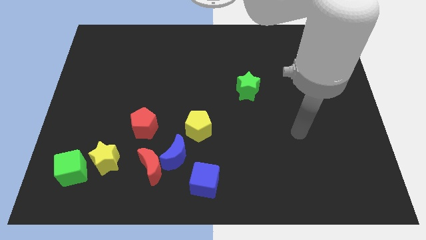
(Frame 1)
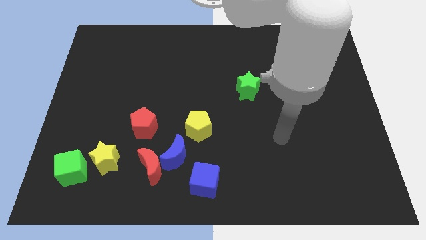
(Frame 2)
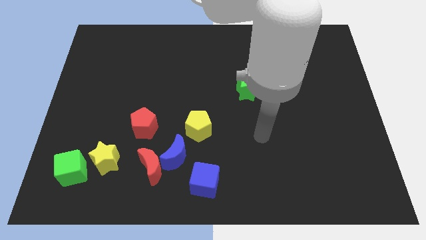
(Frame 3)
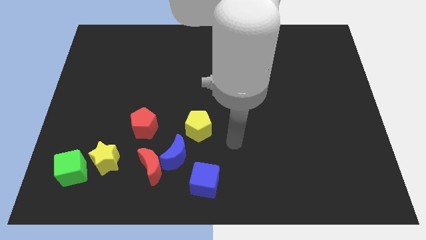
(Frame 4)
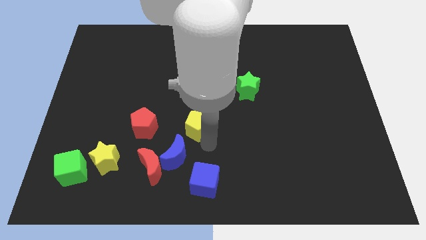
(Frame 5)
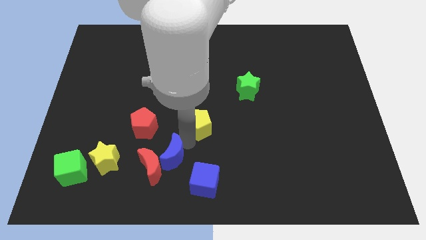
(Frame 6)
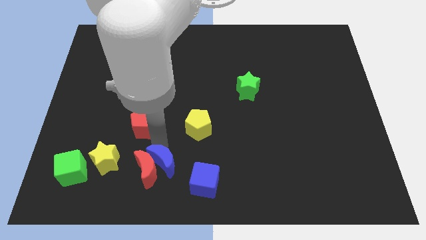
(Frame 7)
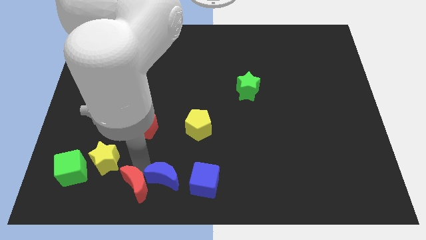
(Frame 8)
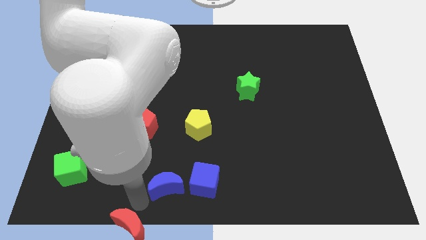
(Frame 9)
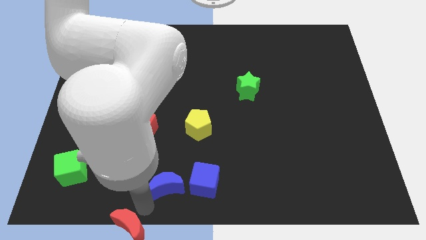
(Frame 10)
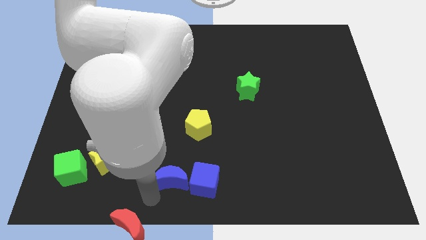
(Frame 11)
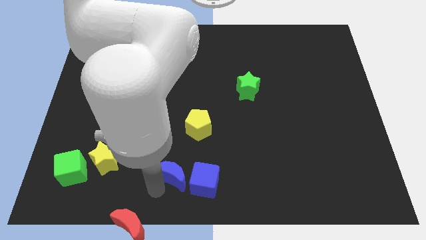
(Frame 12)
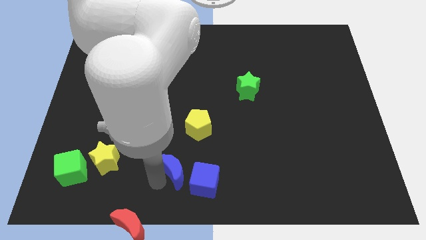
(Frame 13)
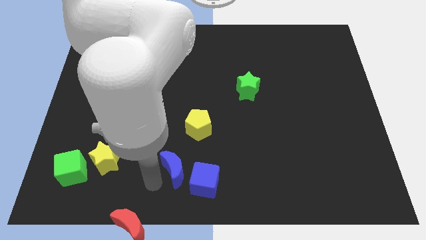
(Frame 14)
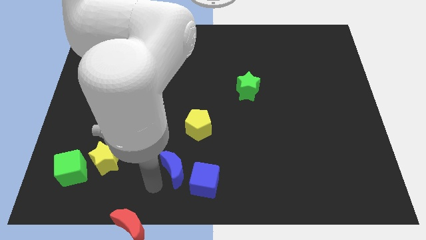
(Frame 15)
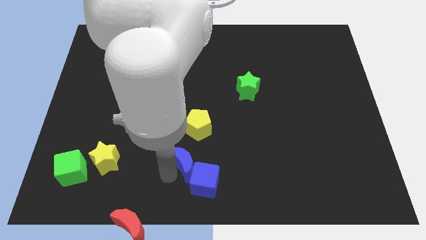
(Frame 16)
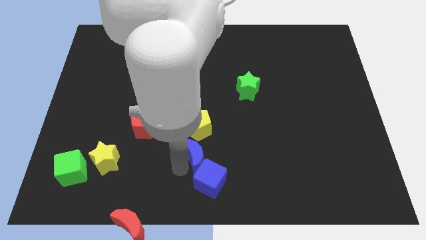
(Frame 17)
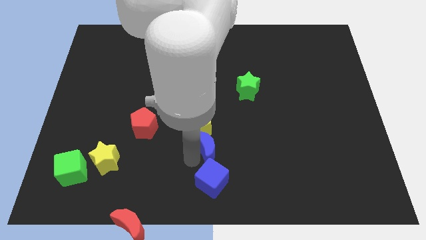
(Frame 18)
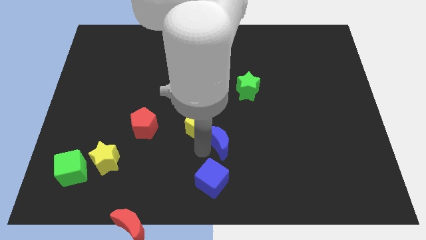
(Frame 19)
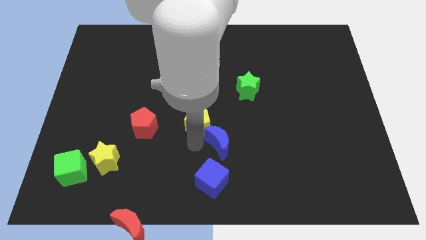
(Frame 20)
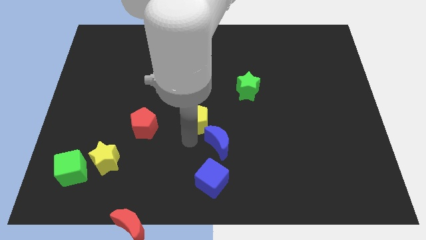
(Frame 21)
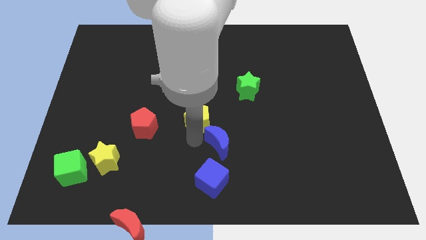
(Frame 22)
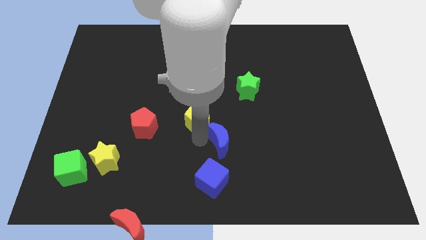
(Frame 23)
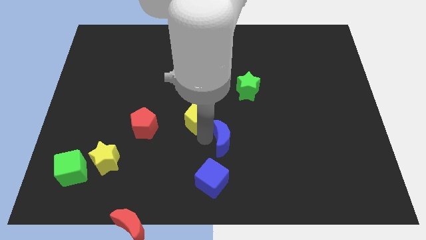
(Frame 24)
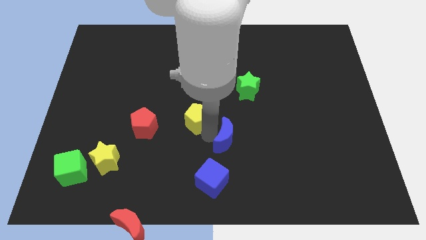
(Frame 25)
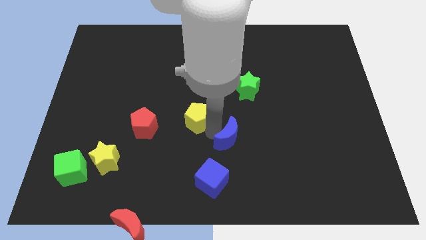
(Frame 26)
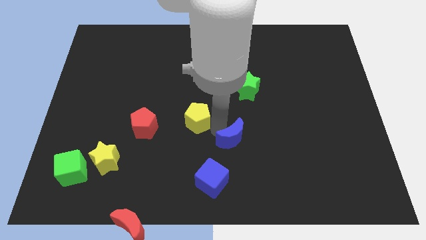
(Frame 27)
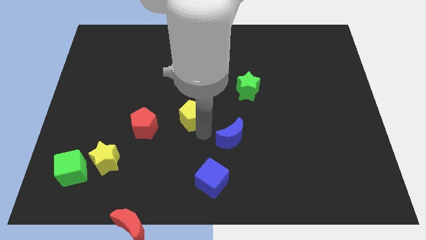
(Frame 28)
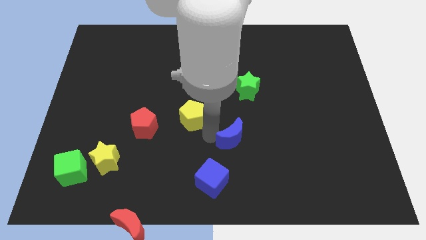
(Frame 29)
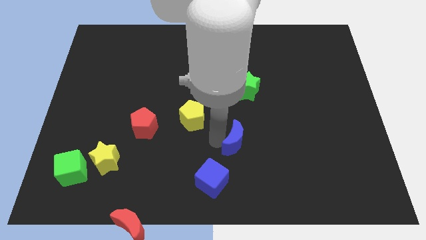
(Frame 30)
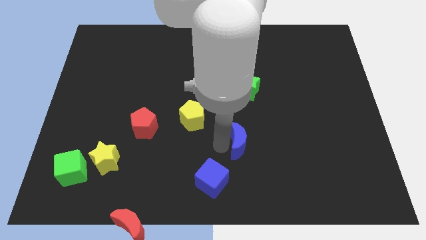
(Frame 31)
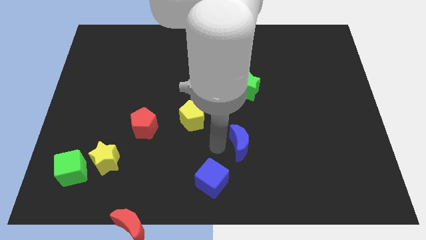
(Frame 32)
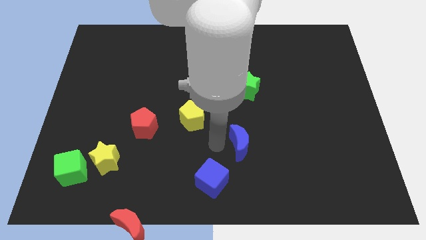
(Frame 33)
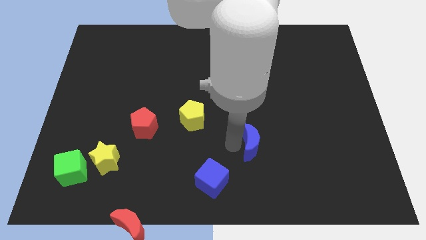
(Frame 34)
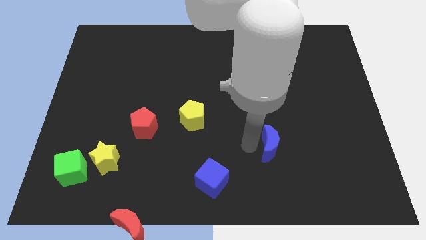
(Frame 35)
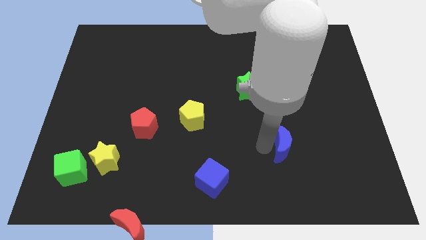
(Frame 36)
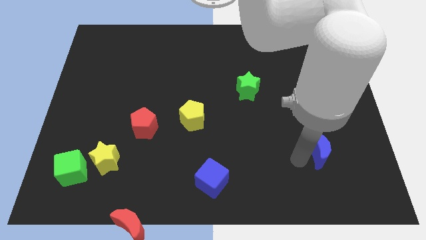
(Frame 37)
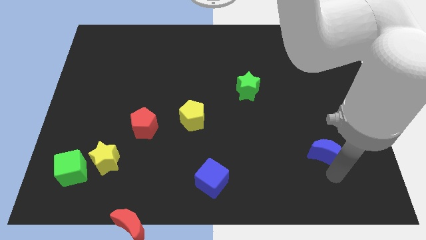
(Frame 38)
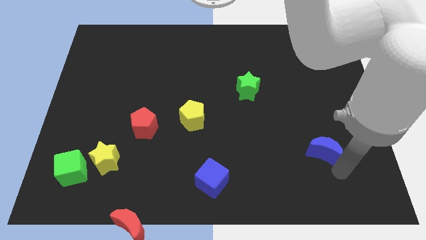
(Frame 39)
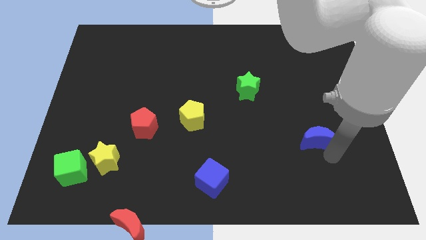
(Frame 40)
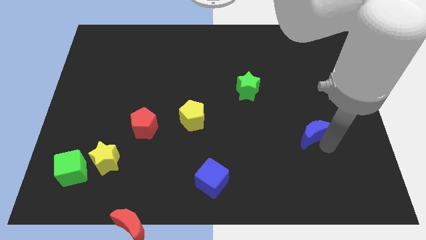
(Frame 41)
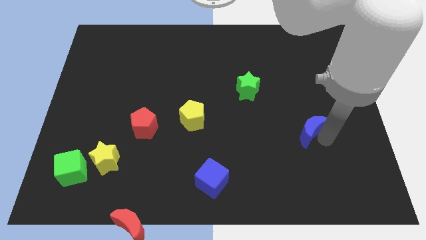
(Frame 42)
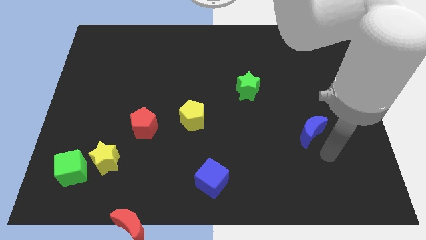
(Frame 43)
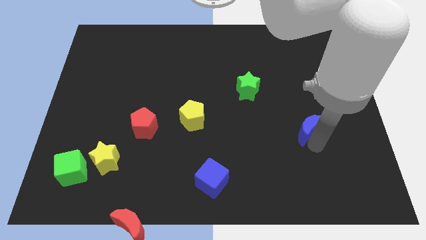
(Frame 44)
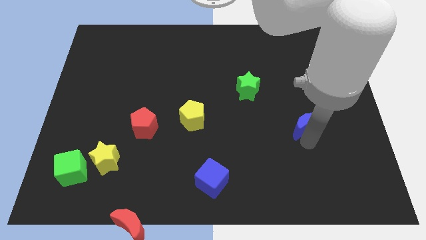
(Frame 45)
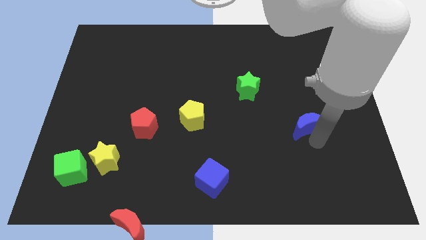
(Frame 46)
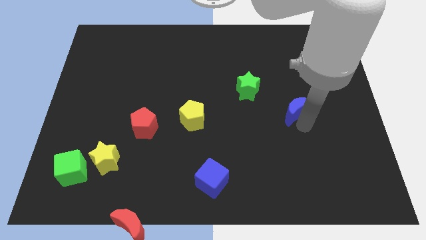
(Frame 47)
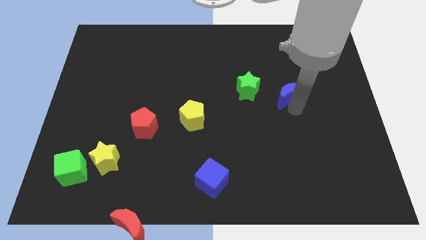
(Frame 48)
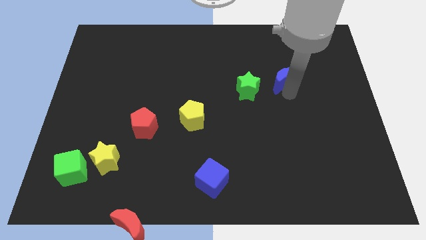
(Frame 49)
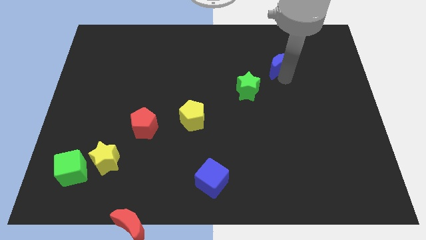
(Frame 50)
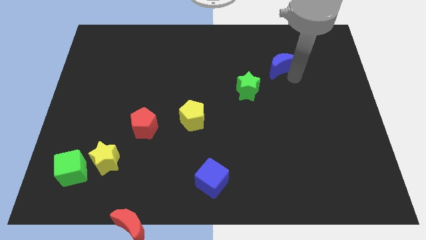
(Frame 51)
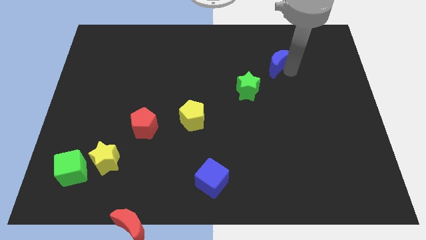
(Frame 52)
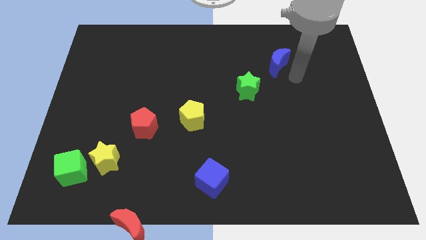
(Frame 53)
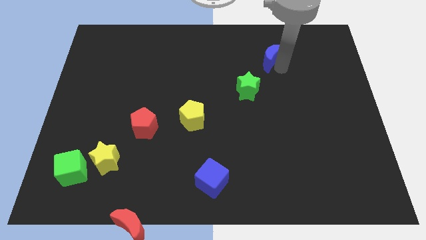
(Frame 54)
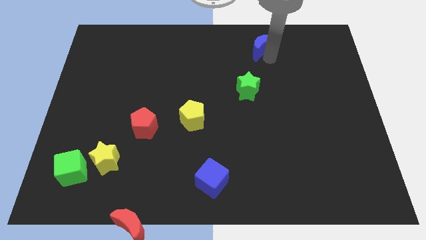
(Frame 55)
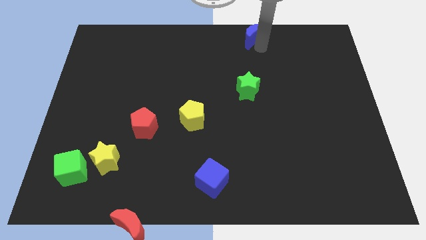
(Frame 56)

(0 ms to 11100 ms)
slide the blue moon to the towards your base
